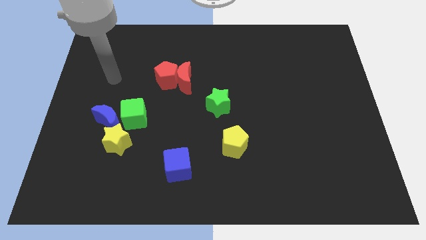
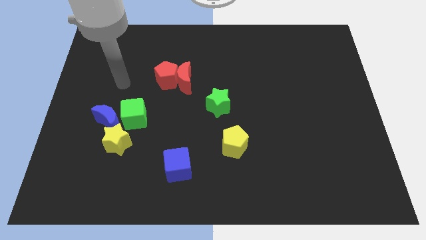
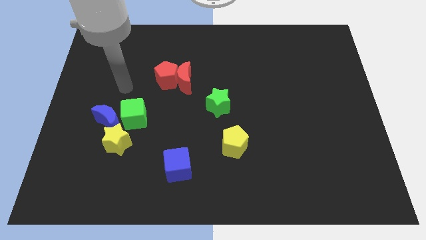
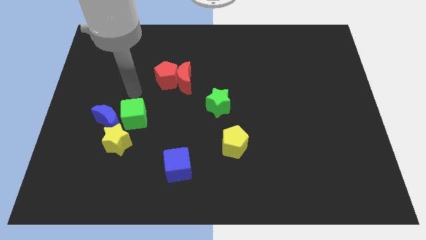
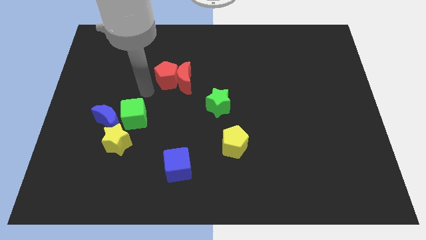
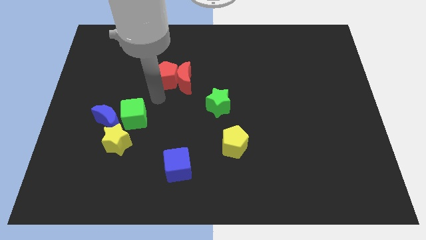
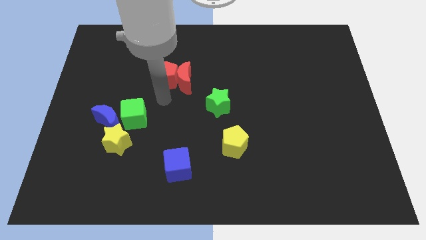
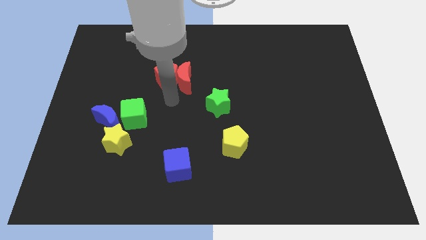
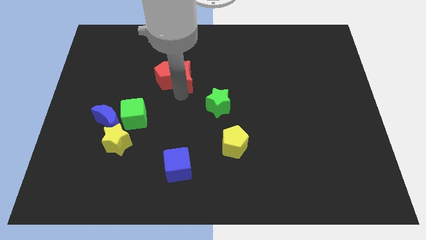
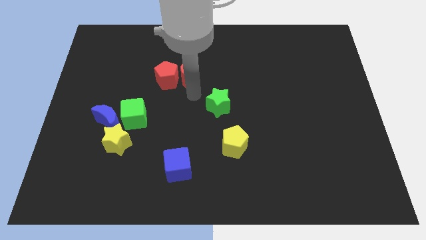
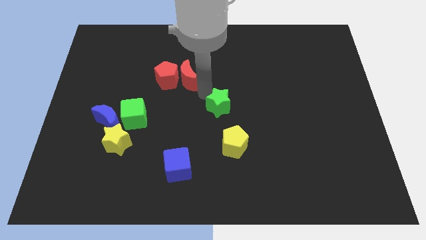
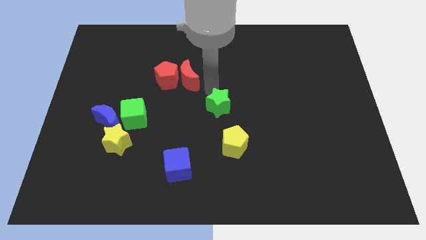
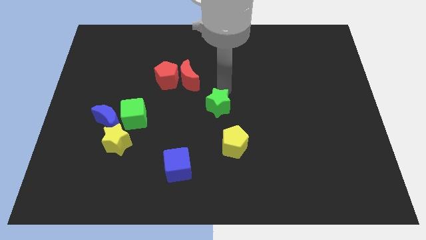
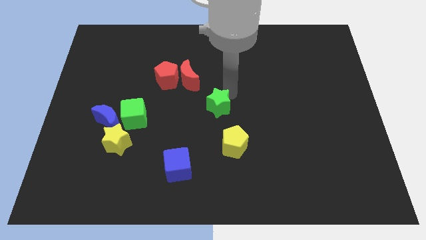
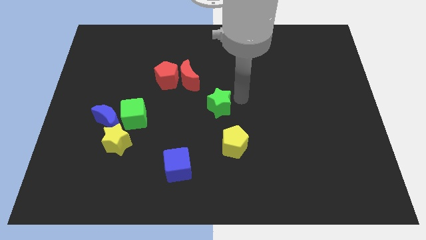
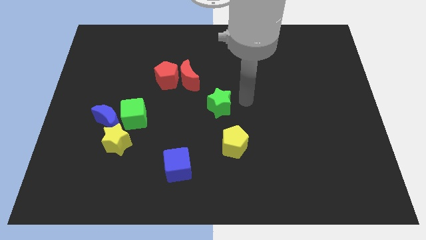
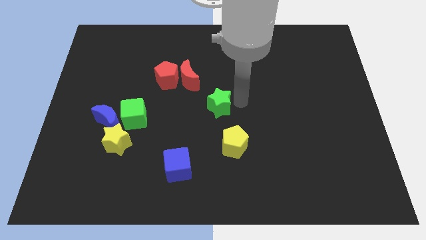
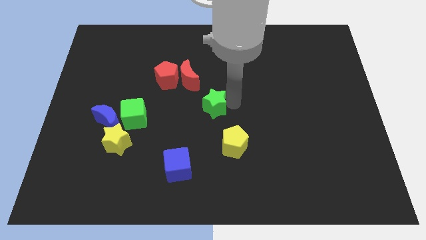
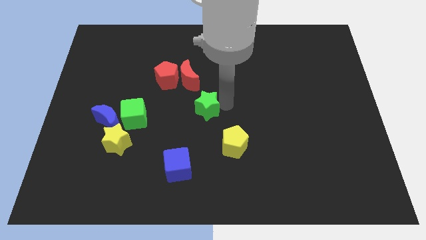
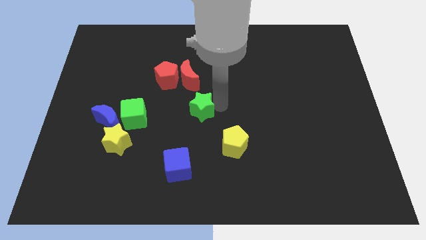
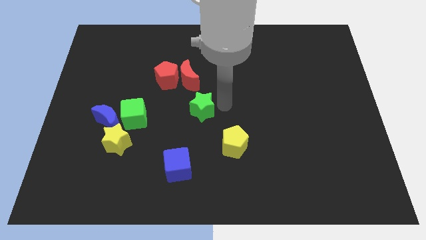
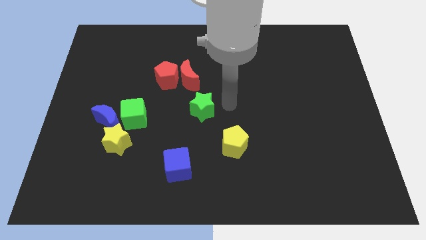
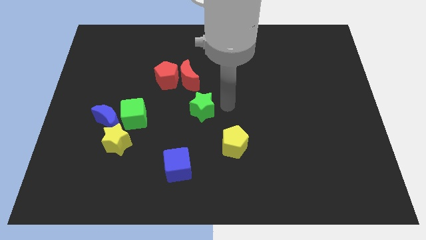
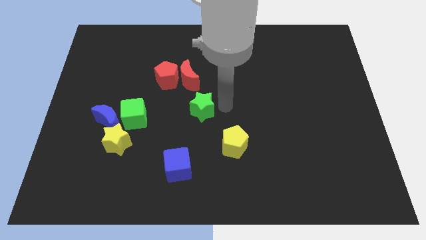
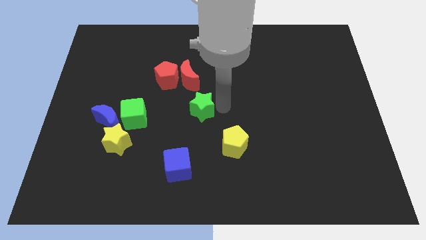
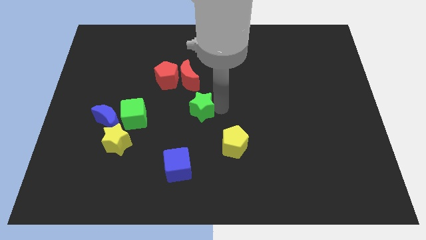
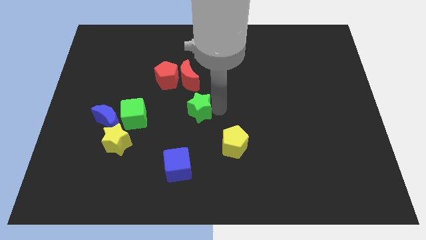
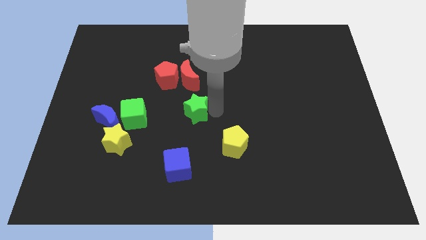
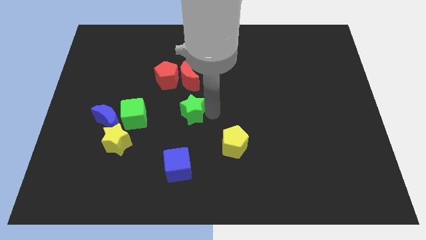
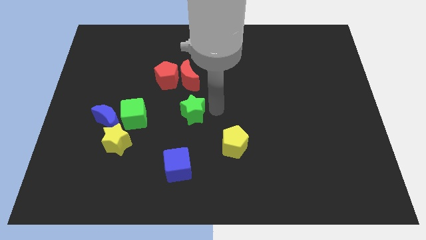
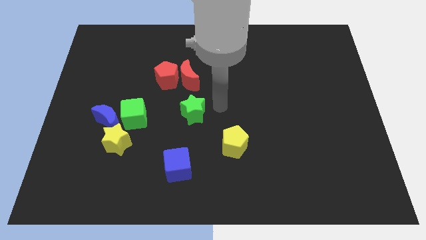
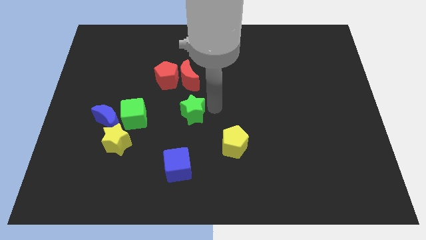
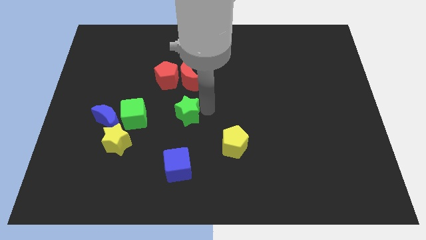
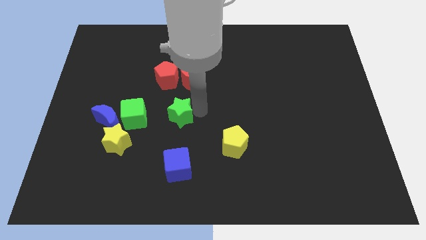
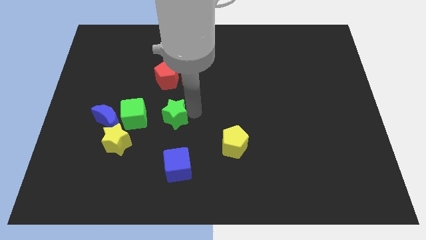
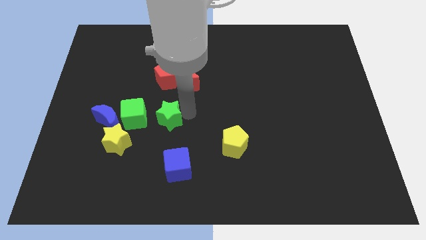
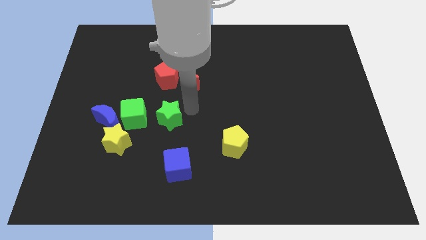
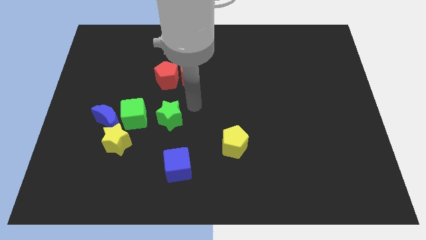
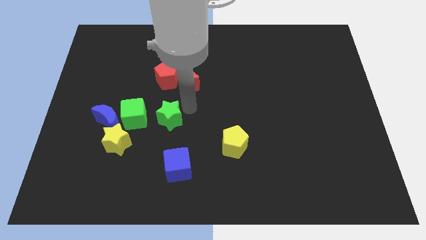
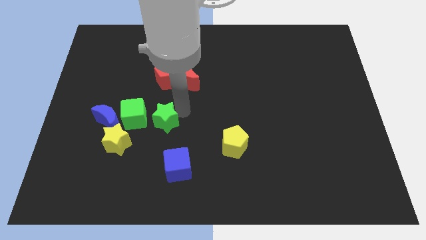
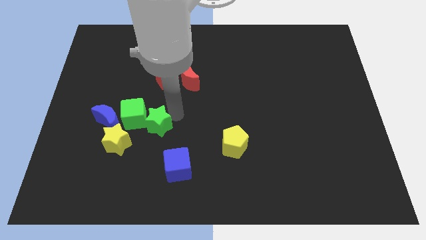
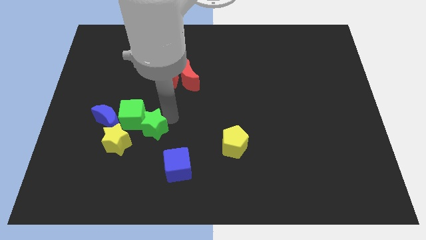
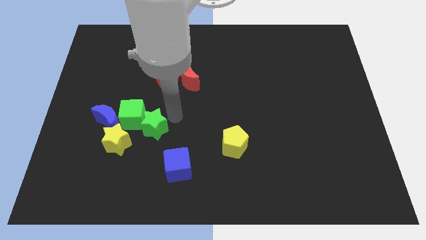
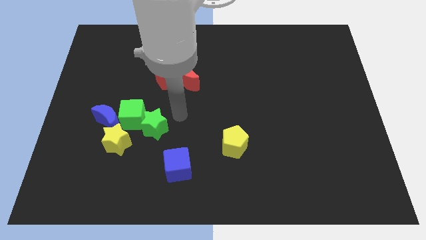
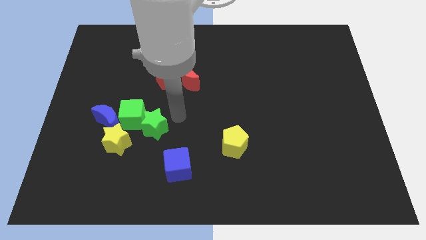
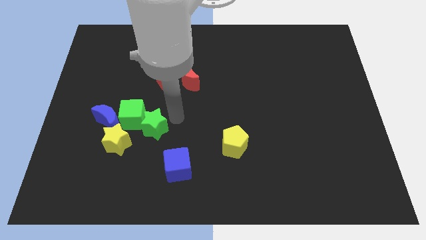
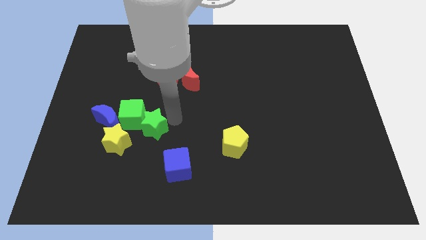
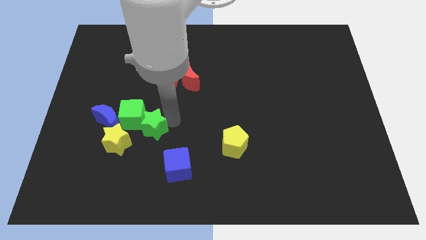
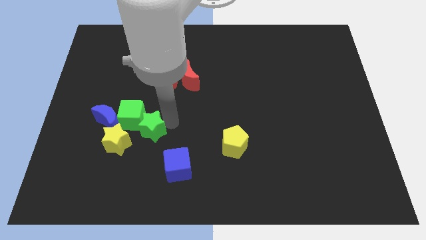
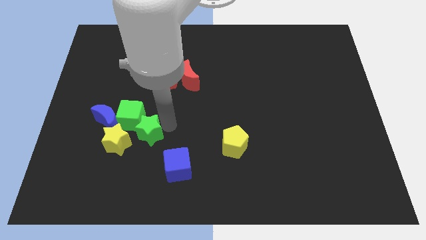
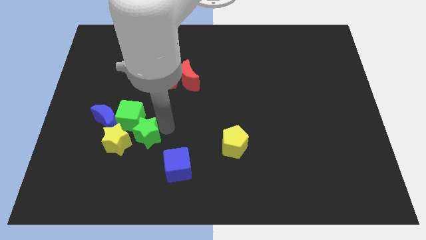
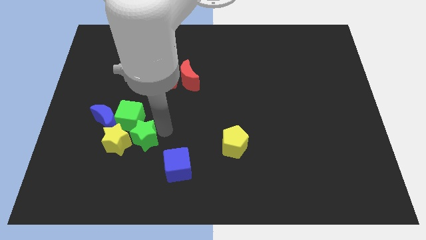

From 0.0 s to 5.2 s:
push the green star to the yellow star

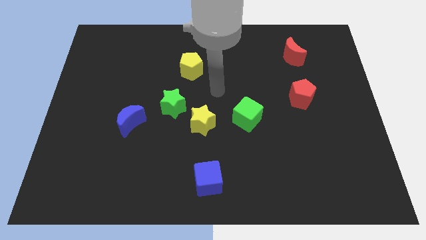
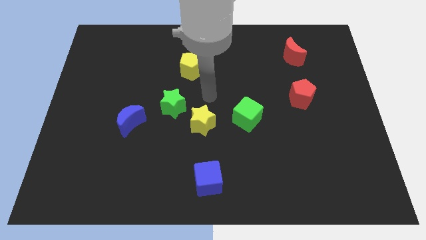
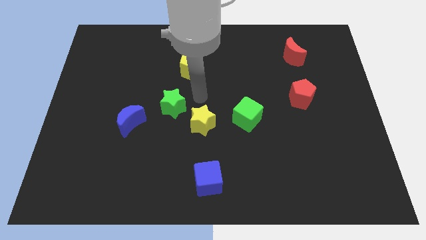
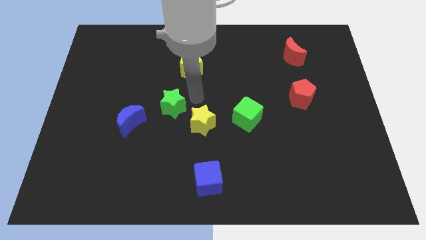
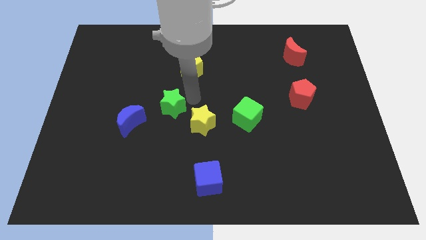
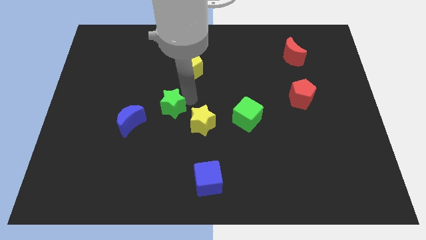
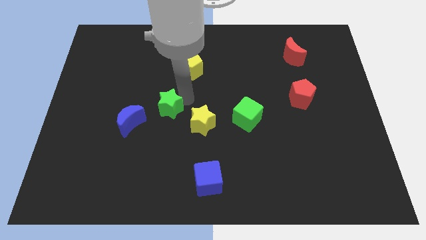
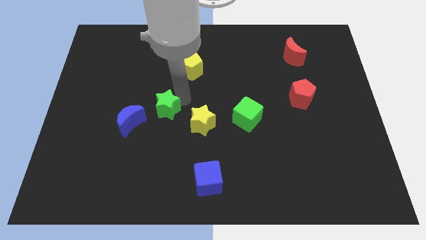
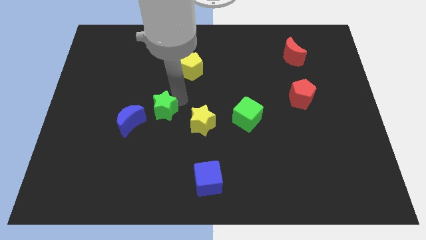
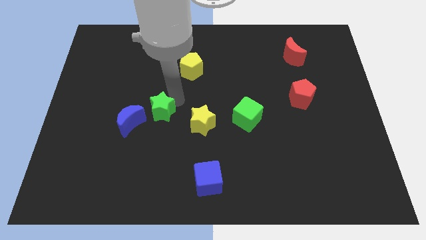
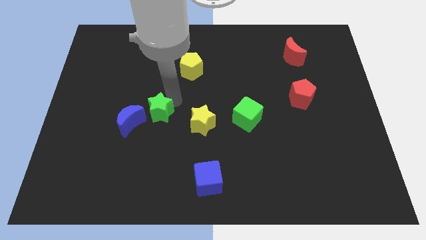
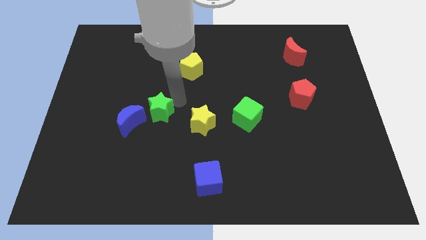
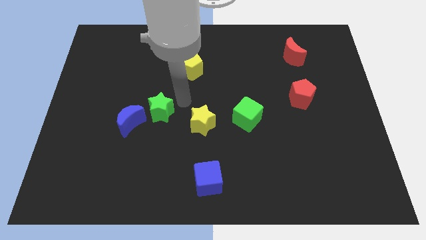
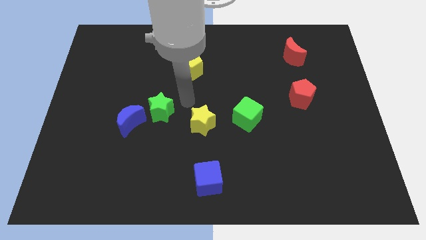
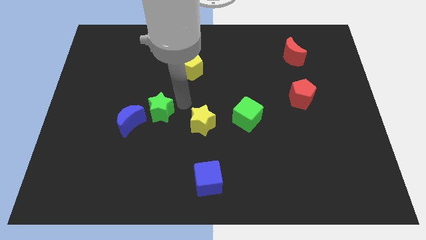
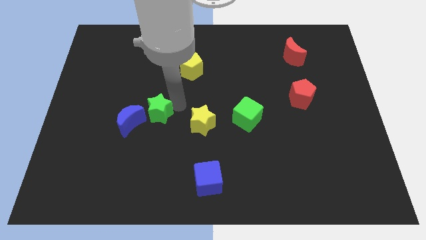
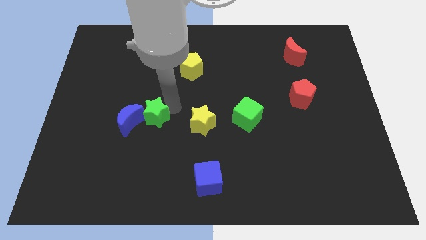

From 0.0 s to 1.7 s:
slide the green star next to the blue moon

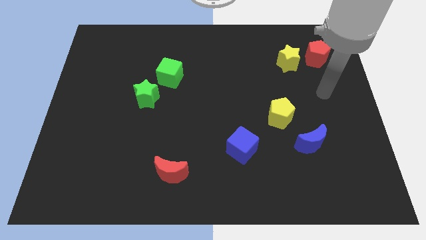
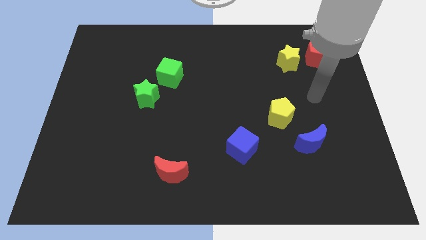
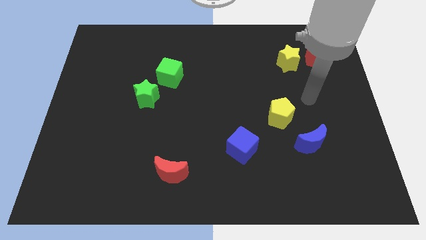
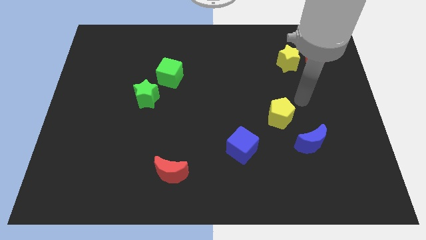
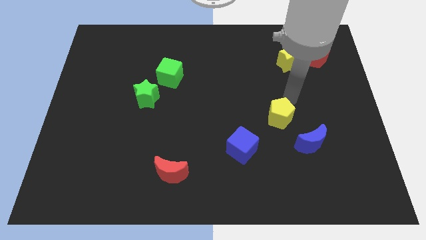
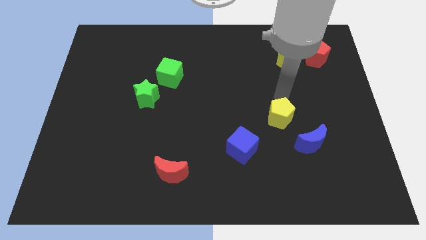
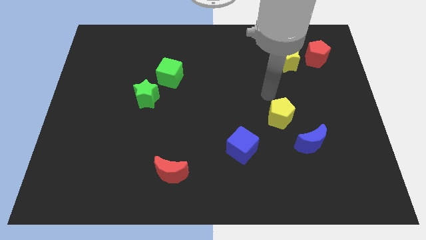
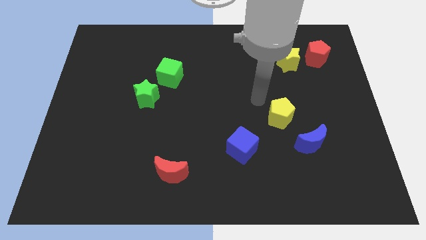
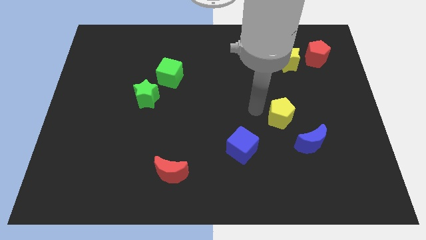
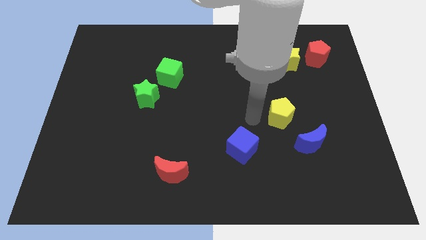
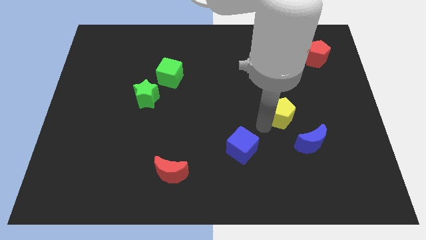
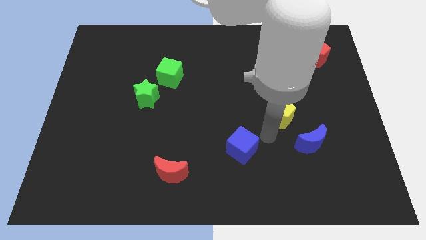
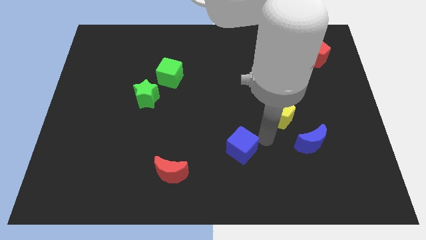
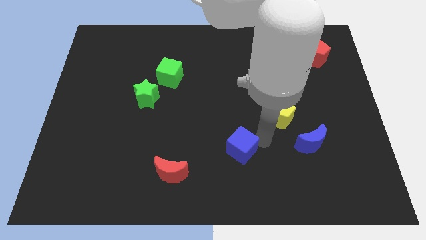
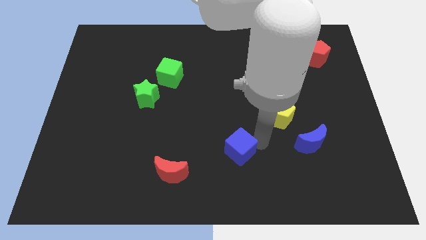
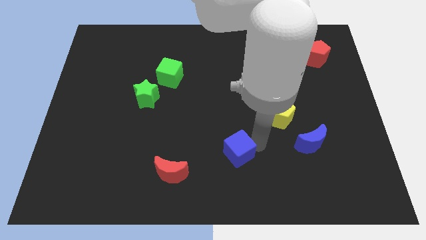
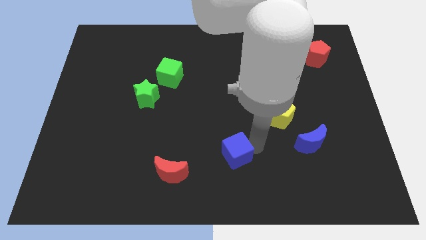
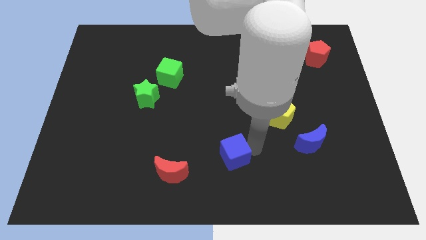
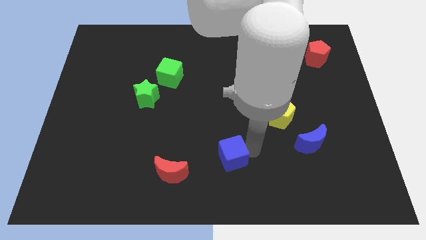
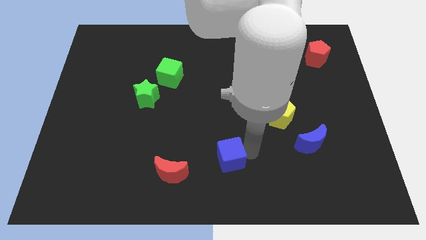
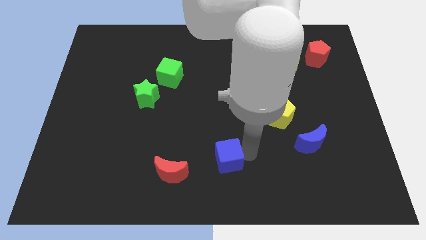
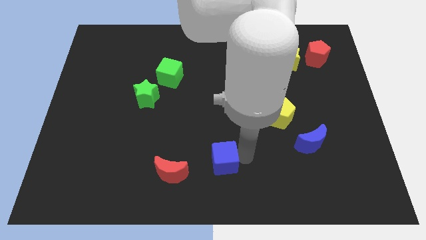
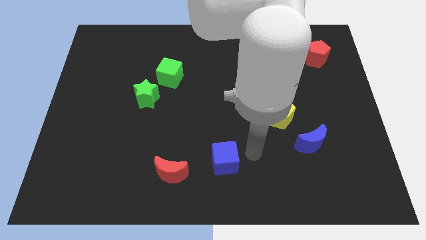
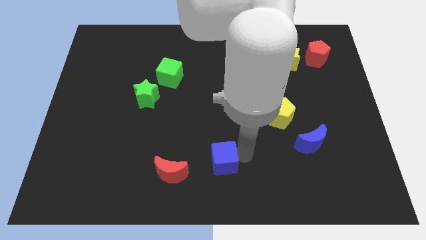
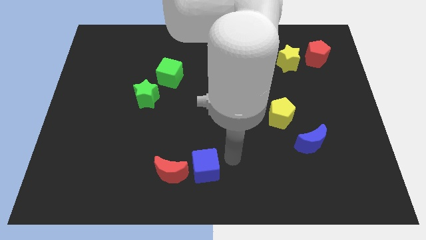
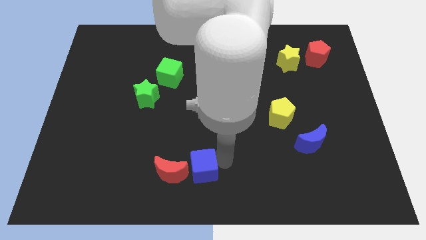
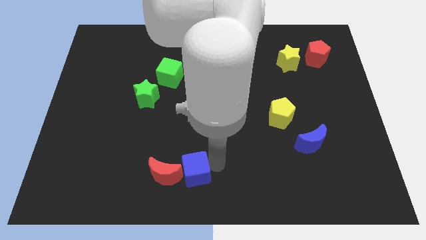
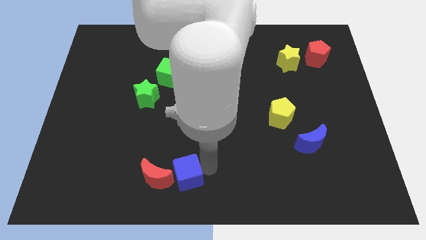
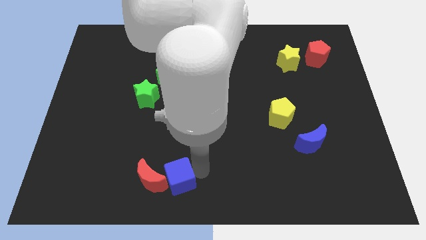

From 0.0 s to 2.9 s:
move the blue cube towards the red moon
